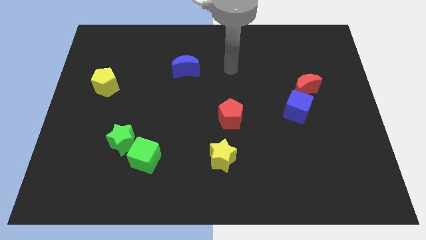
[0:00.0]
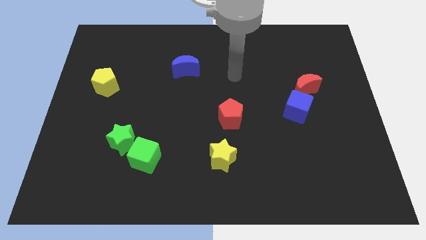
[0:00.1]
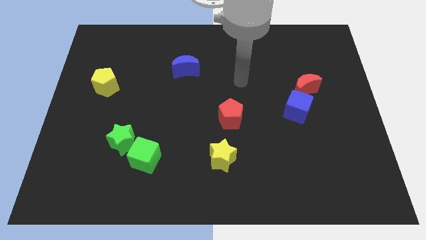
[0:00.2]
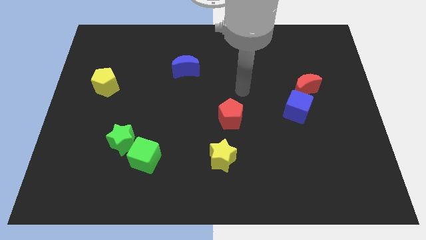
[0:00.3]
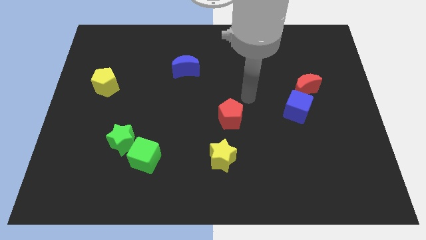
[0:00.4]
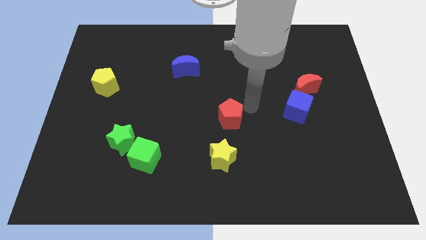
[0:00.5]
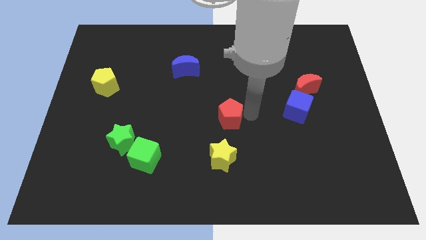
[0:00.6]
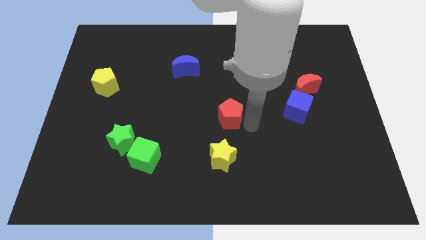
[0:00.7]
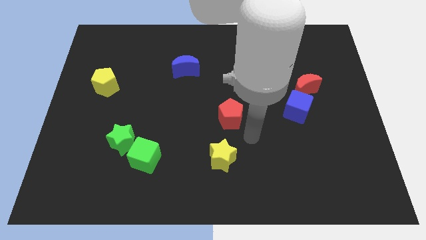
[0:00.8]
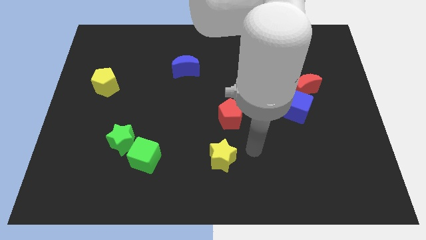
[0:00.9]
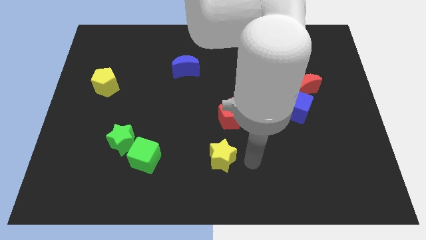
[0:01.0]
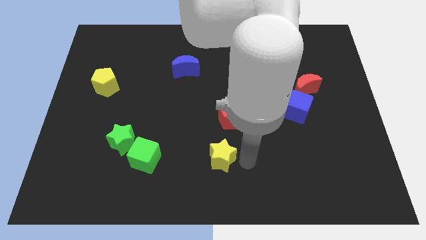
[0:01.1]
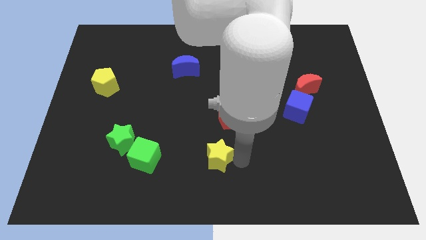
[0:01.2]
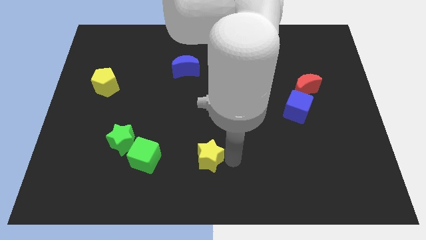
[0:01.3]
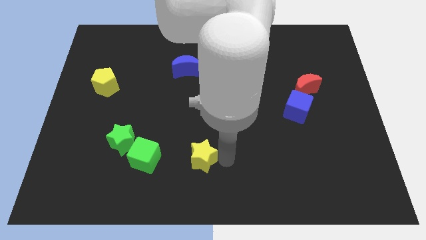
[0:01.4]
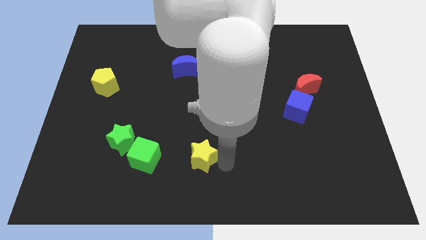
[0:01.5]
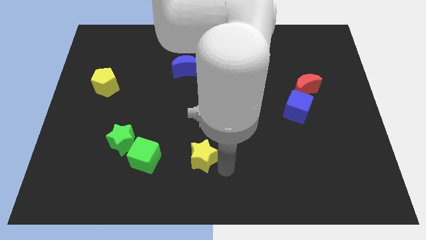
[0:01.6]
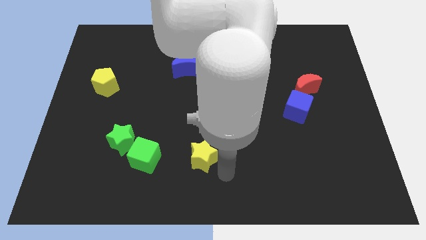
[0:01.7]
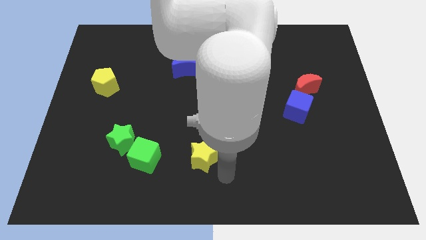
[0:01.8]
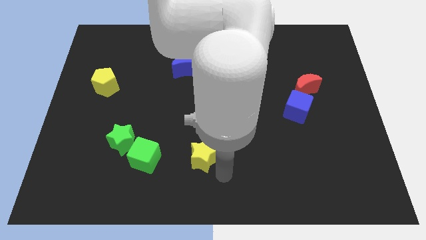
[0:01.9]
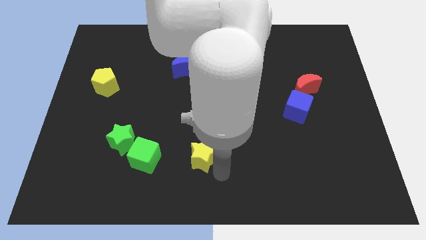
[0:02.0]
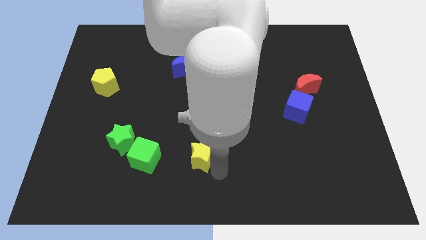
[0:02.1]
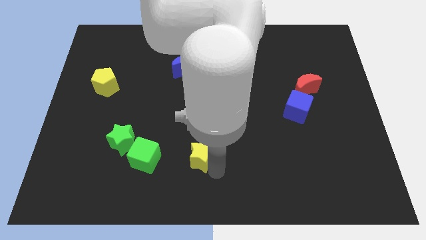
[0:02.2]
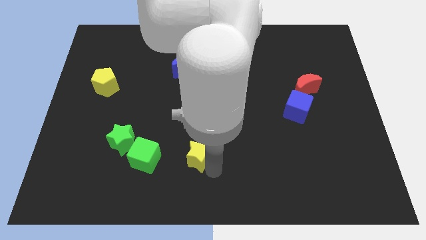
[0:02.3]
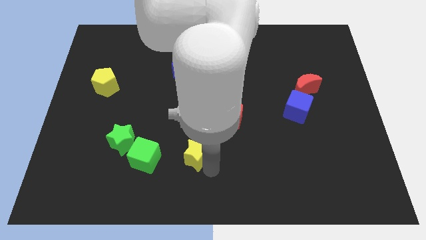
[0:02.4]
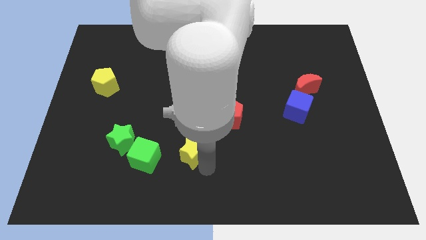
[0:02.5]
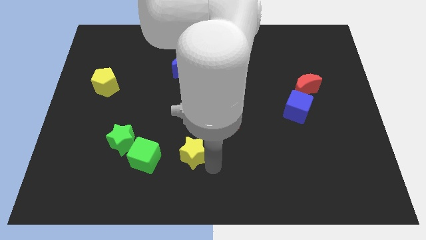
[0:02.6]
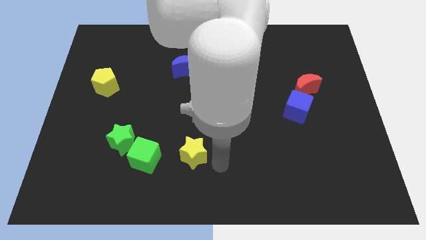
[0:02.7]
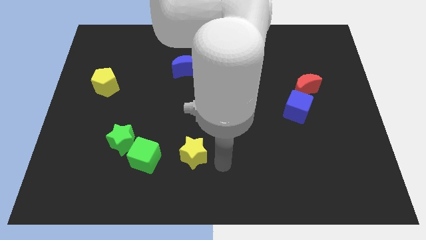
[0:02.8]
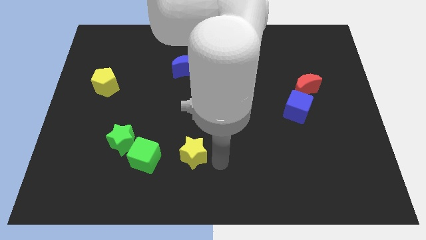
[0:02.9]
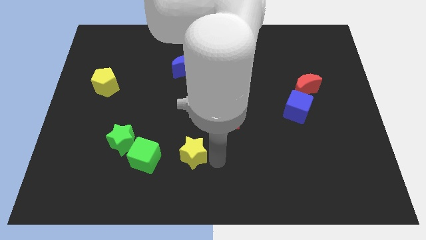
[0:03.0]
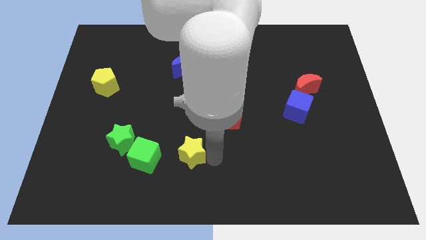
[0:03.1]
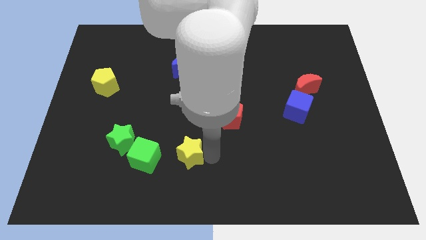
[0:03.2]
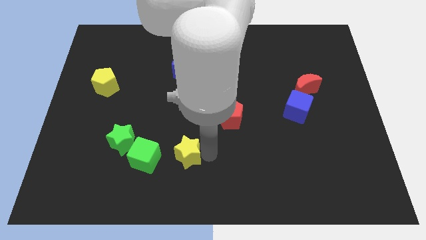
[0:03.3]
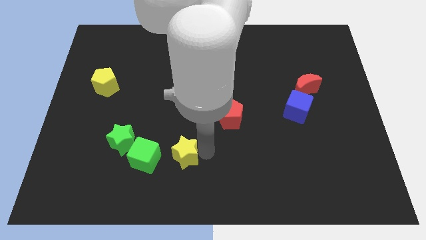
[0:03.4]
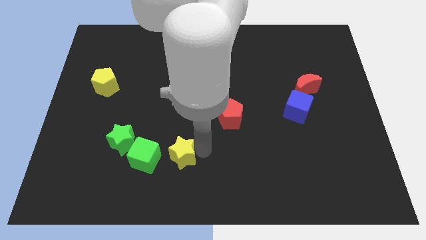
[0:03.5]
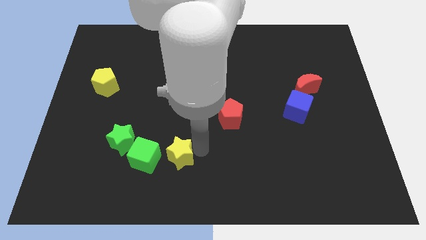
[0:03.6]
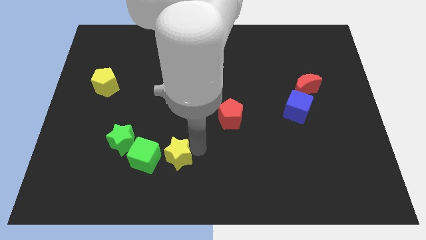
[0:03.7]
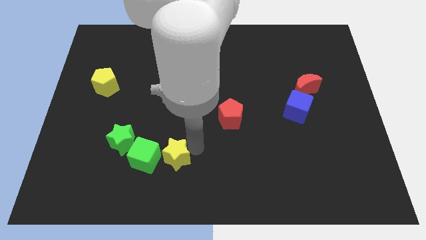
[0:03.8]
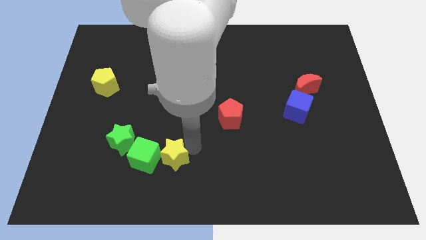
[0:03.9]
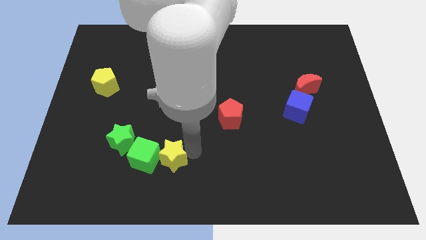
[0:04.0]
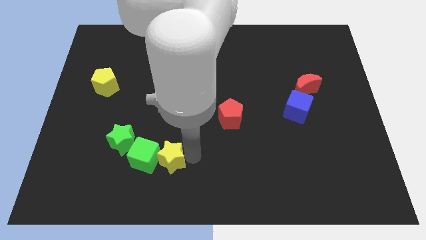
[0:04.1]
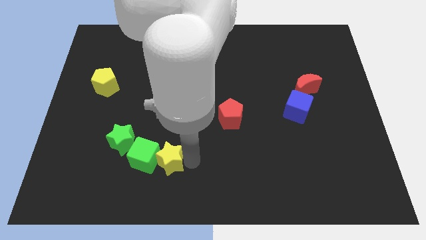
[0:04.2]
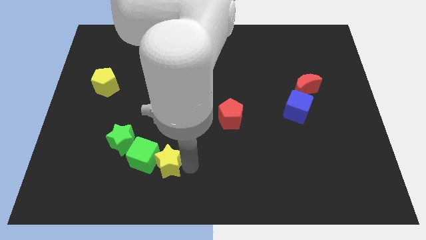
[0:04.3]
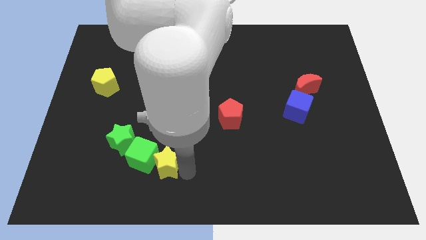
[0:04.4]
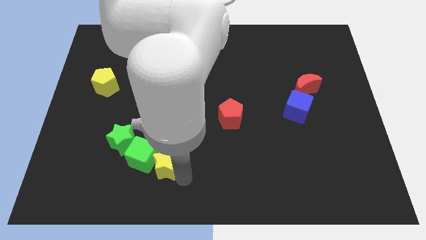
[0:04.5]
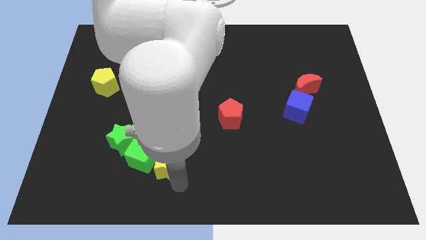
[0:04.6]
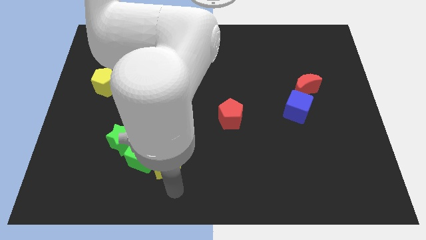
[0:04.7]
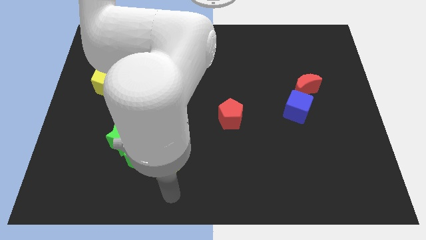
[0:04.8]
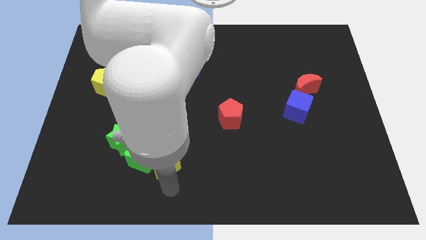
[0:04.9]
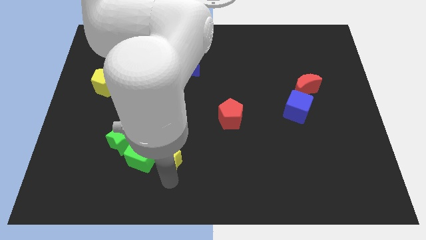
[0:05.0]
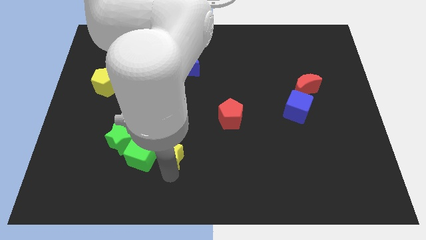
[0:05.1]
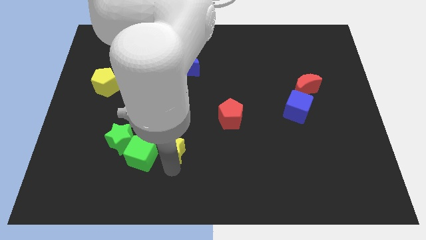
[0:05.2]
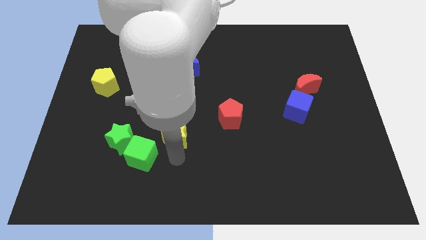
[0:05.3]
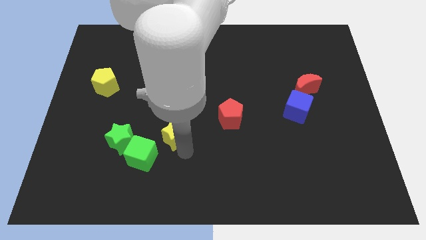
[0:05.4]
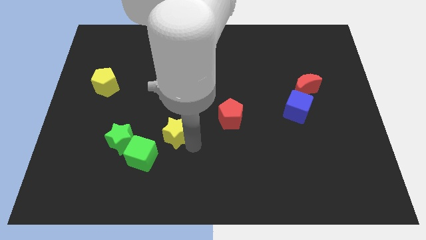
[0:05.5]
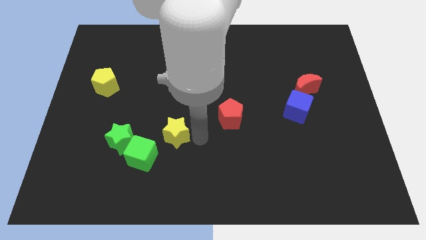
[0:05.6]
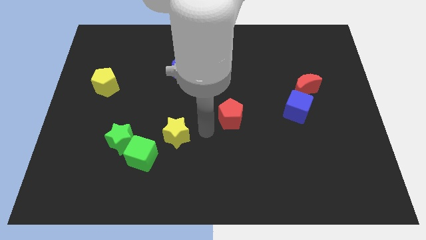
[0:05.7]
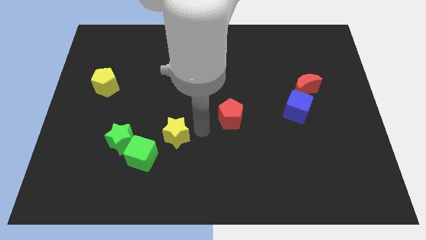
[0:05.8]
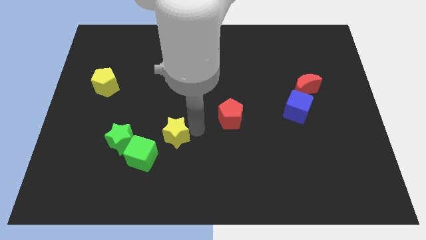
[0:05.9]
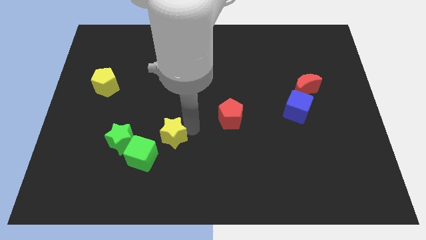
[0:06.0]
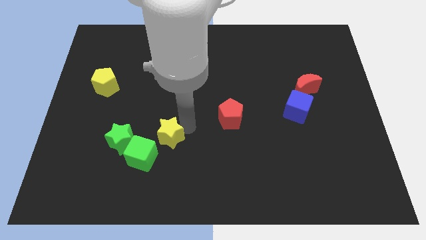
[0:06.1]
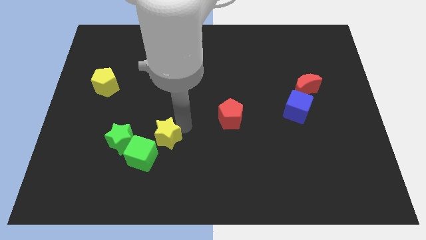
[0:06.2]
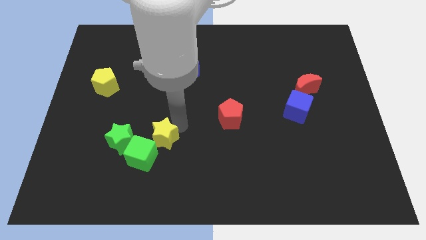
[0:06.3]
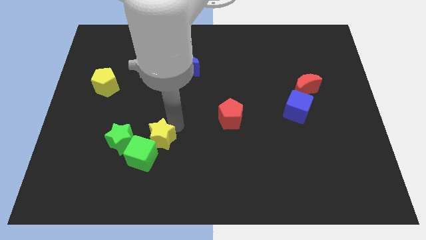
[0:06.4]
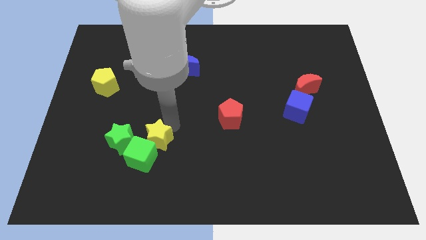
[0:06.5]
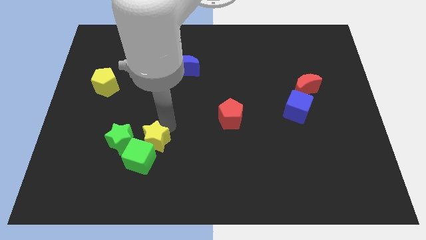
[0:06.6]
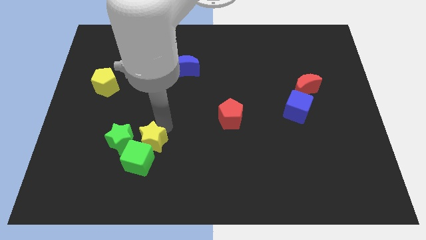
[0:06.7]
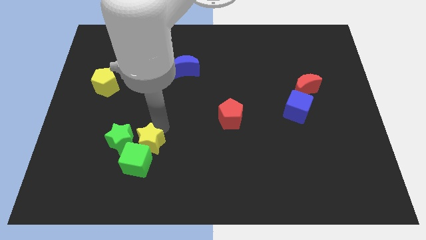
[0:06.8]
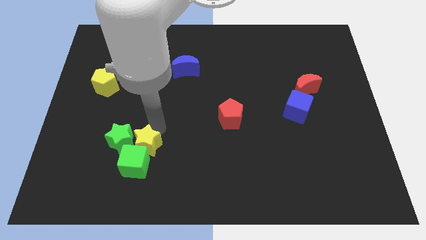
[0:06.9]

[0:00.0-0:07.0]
move the yellow star to the green star

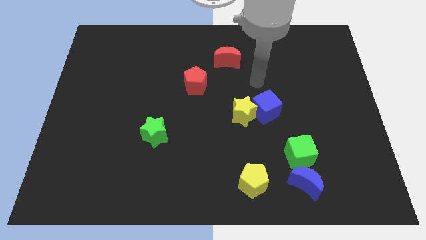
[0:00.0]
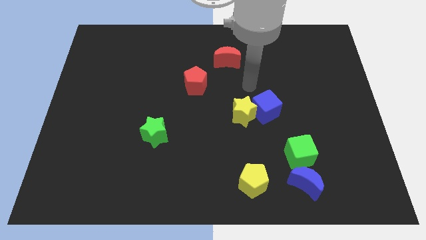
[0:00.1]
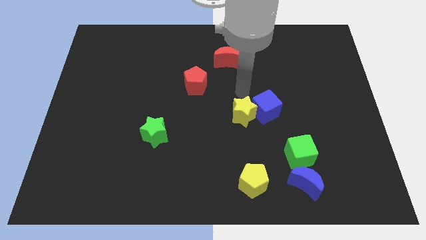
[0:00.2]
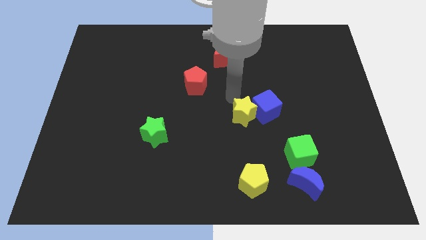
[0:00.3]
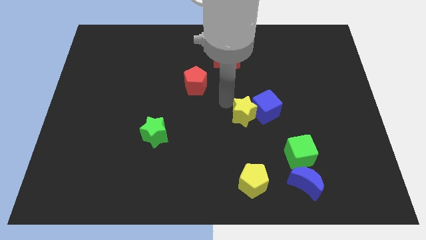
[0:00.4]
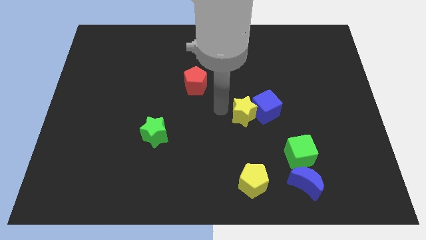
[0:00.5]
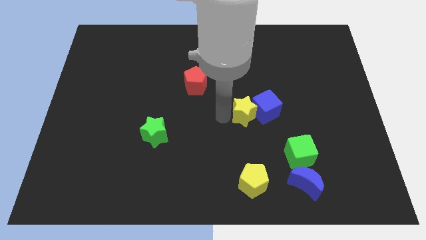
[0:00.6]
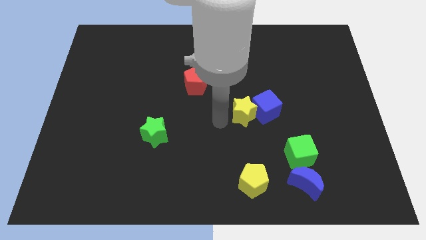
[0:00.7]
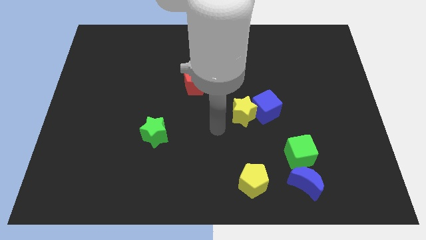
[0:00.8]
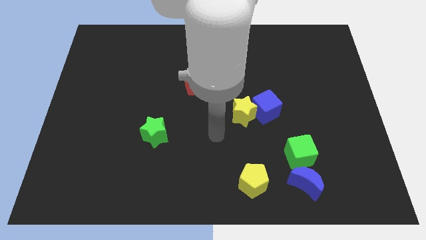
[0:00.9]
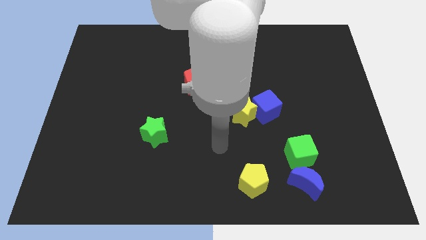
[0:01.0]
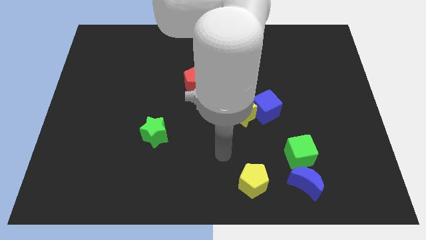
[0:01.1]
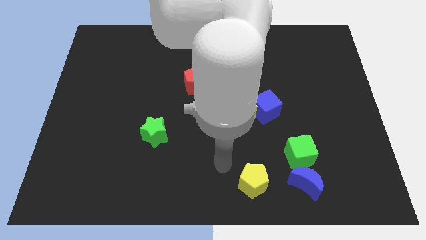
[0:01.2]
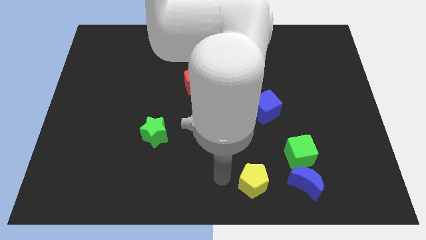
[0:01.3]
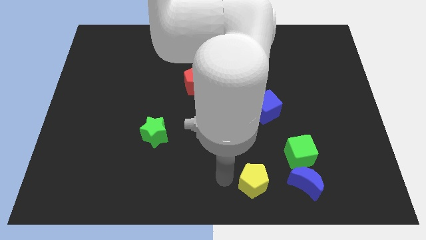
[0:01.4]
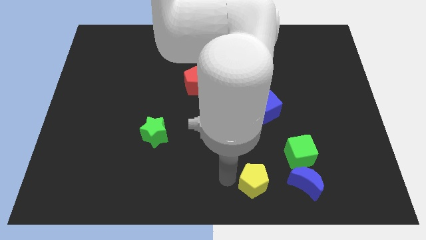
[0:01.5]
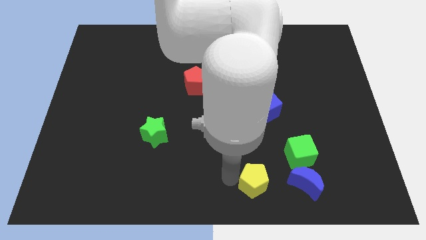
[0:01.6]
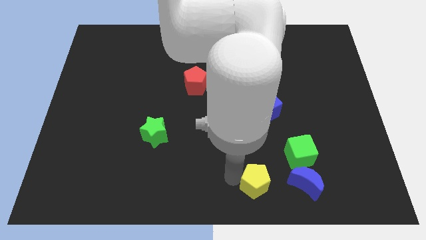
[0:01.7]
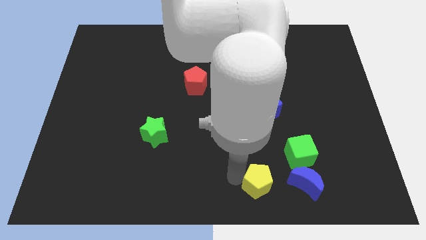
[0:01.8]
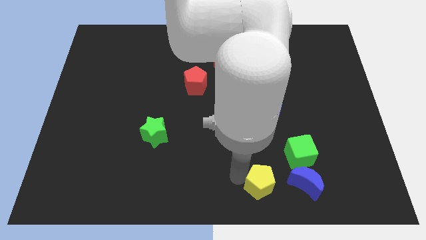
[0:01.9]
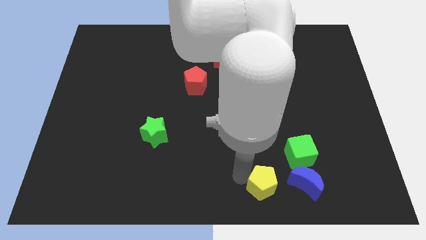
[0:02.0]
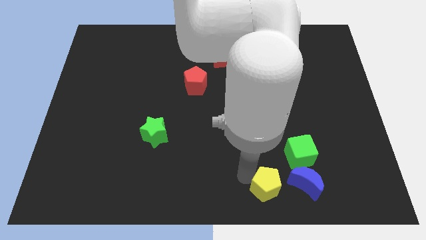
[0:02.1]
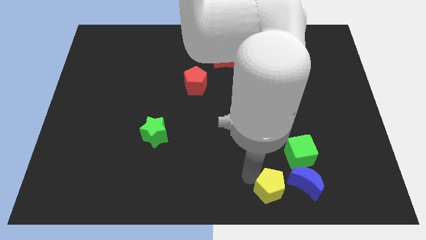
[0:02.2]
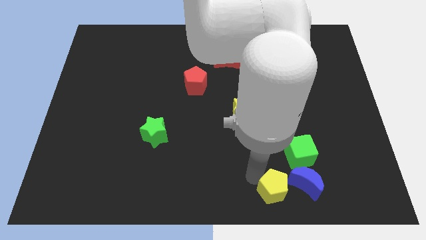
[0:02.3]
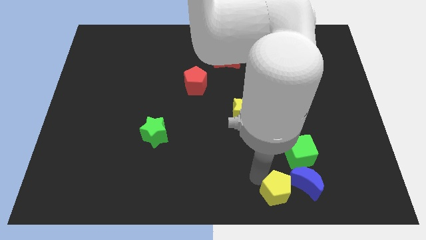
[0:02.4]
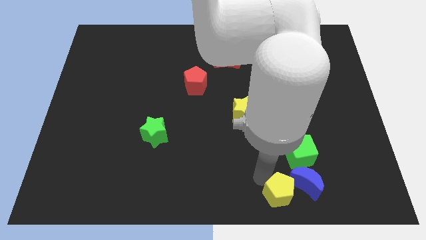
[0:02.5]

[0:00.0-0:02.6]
move the yellow pentagon close to the blue moon
